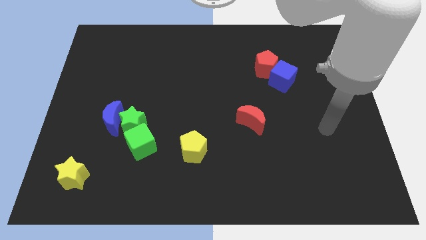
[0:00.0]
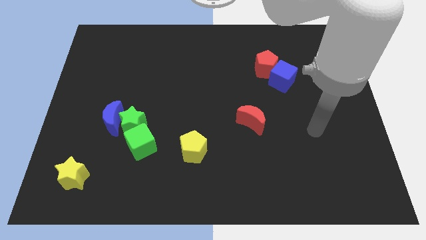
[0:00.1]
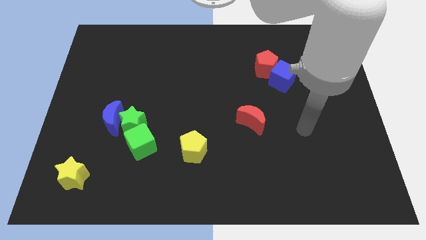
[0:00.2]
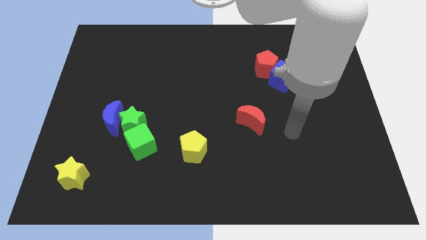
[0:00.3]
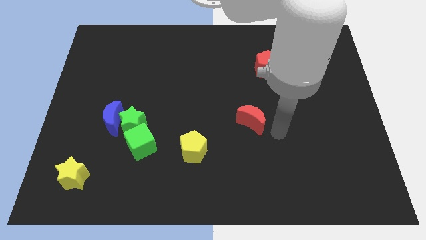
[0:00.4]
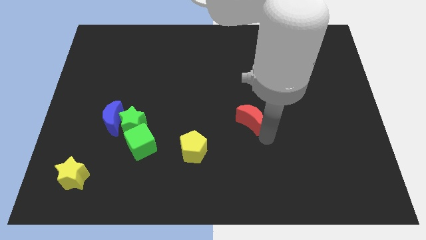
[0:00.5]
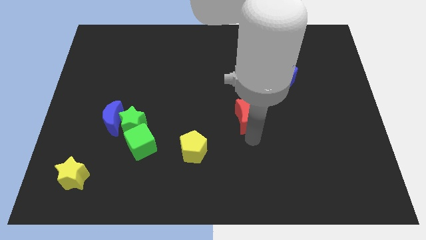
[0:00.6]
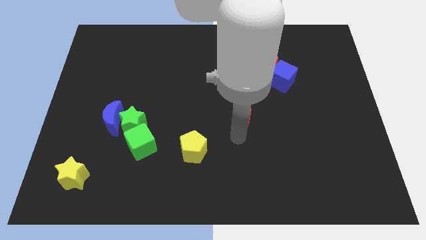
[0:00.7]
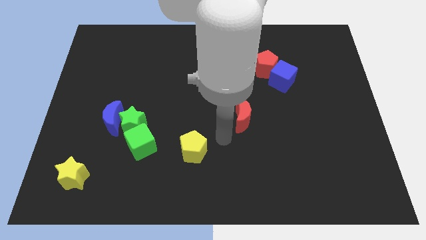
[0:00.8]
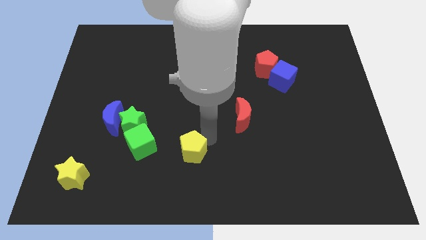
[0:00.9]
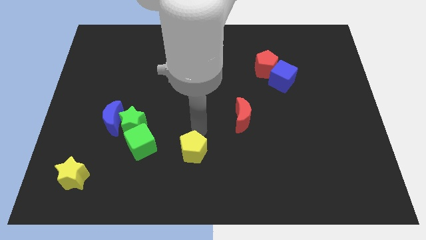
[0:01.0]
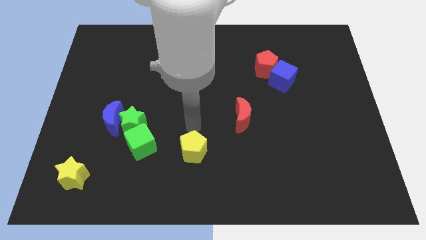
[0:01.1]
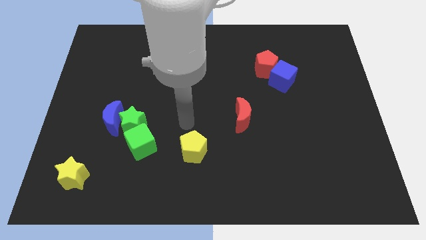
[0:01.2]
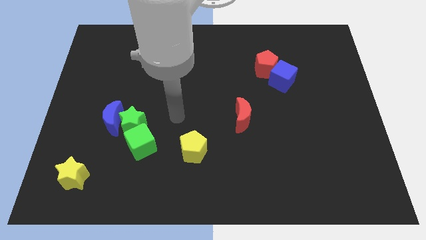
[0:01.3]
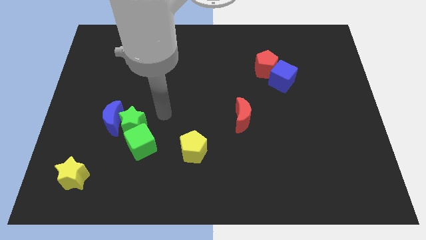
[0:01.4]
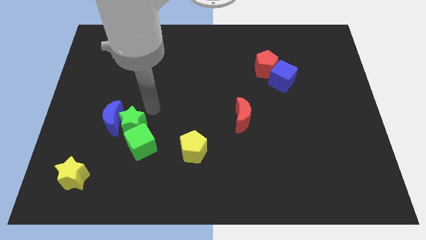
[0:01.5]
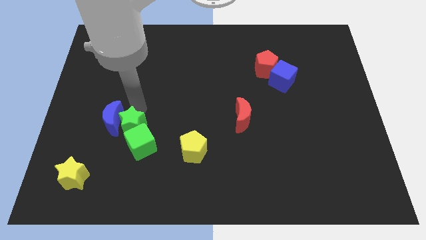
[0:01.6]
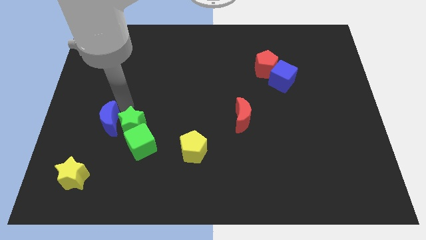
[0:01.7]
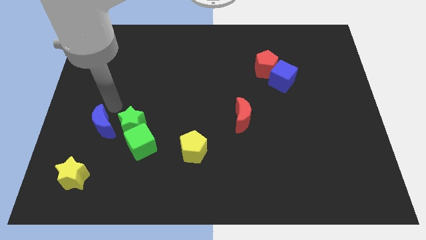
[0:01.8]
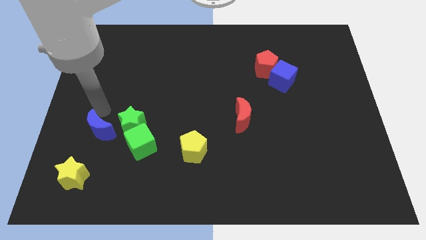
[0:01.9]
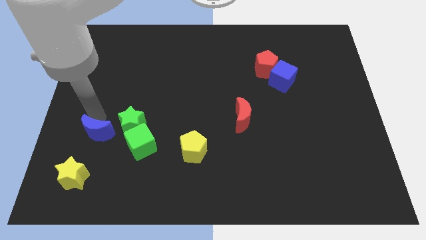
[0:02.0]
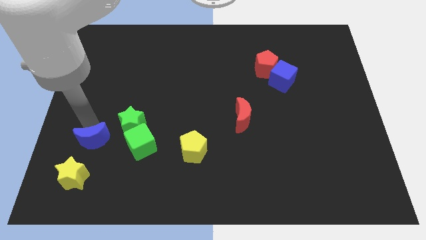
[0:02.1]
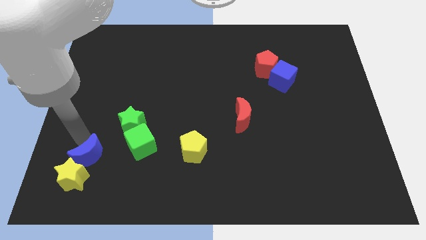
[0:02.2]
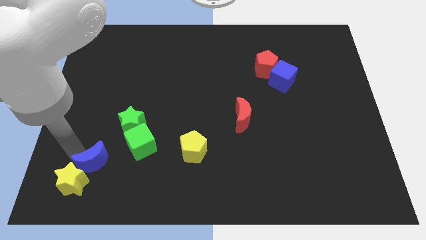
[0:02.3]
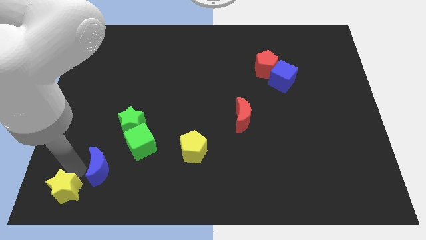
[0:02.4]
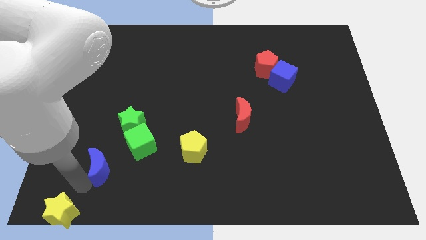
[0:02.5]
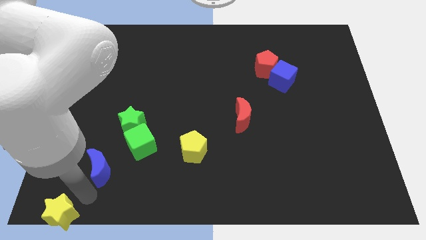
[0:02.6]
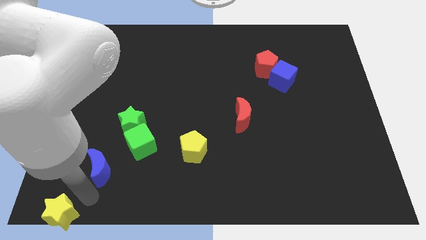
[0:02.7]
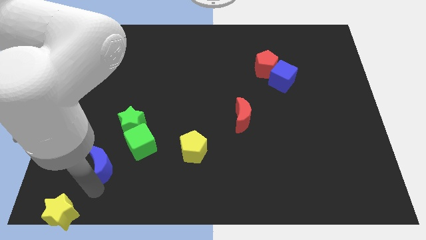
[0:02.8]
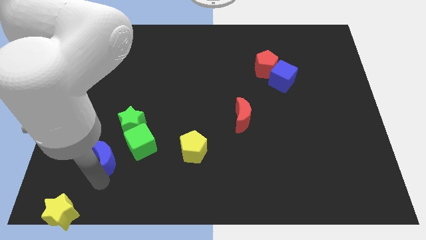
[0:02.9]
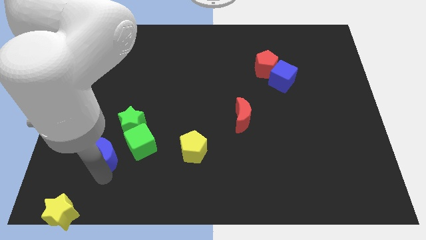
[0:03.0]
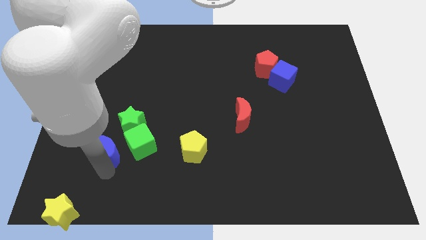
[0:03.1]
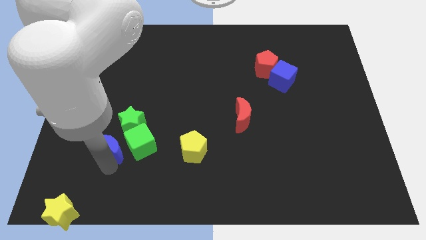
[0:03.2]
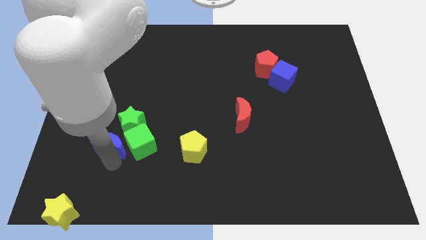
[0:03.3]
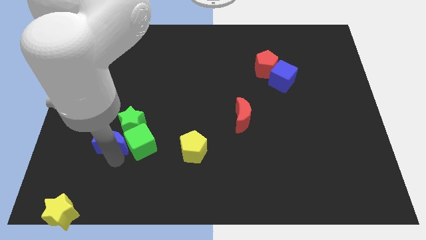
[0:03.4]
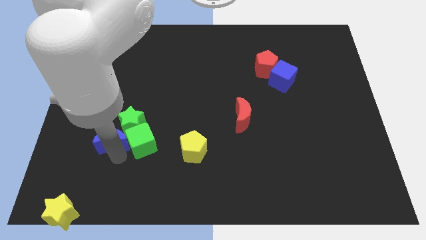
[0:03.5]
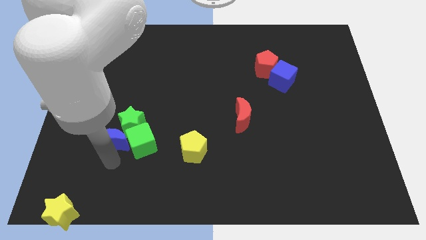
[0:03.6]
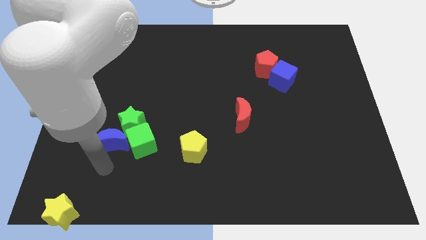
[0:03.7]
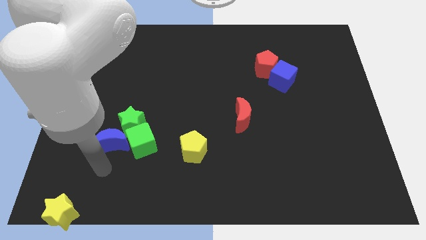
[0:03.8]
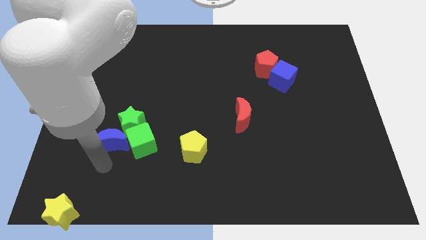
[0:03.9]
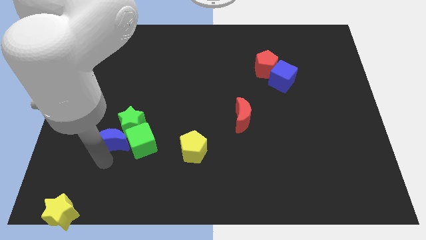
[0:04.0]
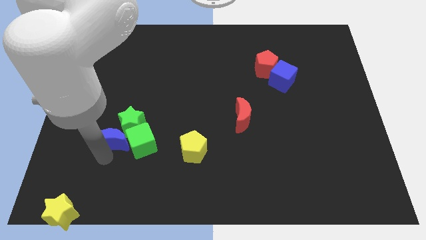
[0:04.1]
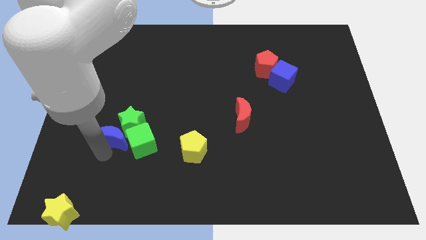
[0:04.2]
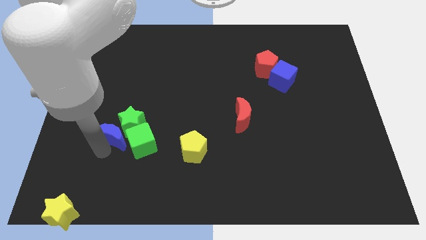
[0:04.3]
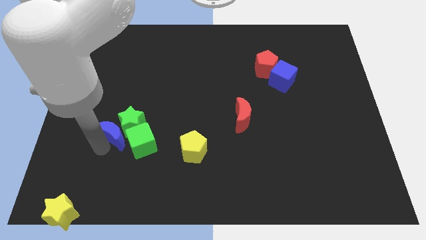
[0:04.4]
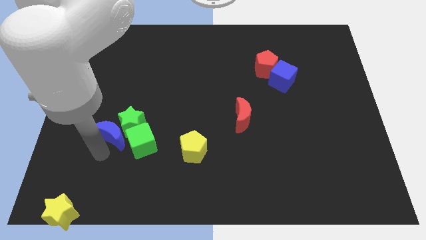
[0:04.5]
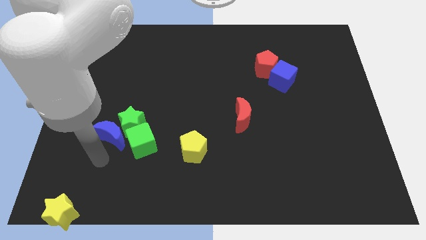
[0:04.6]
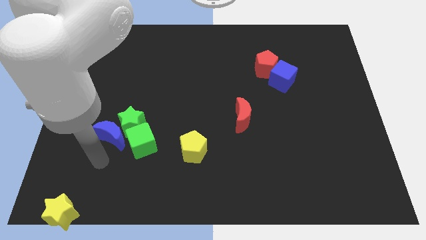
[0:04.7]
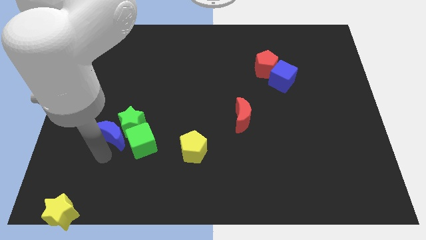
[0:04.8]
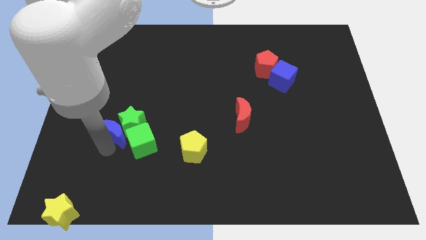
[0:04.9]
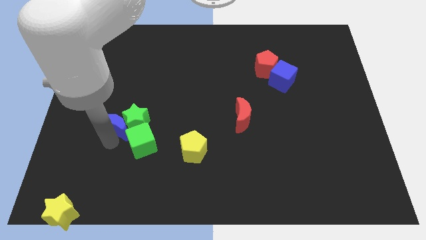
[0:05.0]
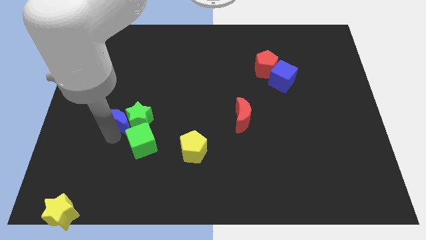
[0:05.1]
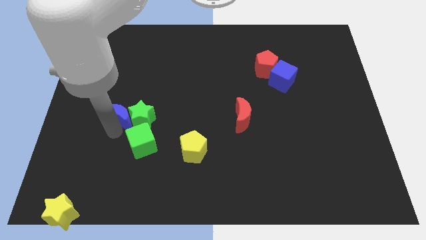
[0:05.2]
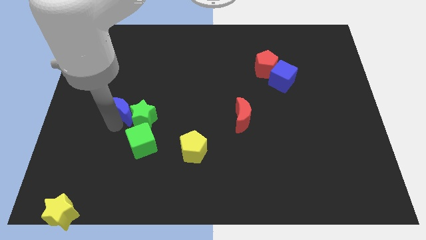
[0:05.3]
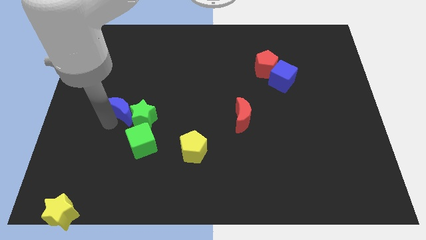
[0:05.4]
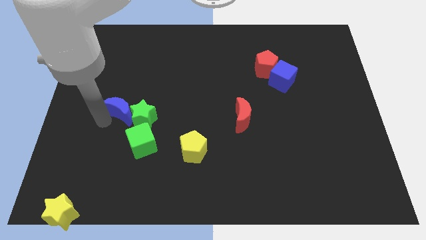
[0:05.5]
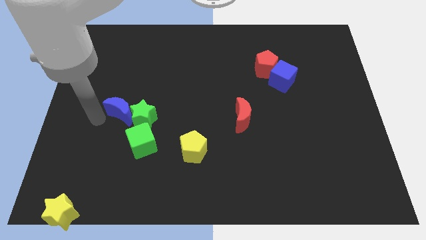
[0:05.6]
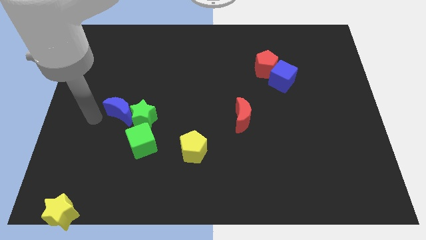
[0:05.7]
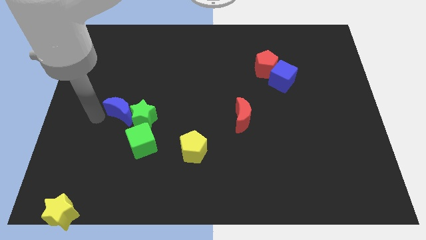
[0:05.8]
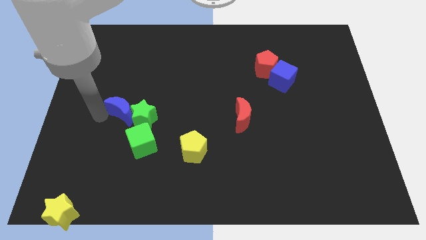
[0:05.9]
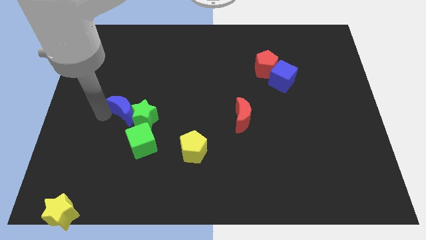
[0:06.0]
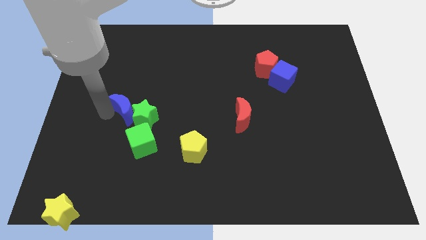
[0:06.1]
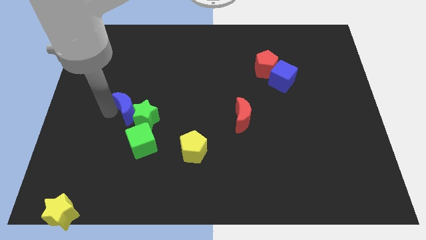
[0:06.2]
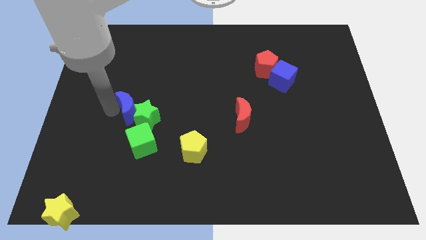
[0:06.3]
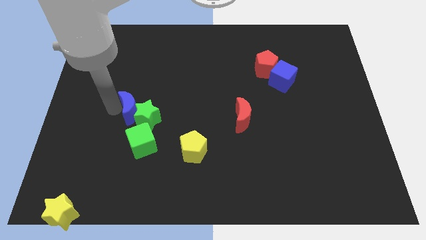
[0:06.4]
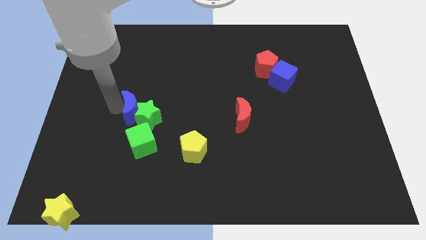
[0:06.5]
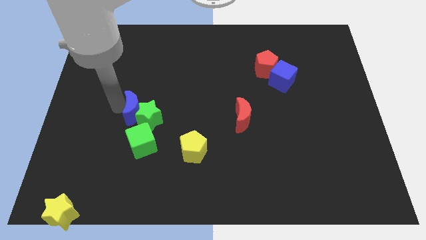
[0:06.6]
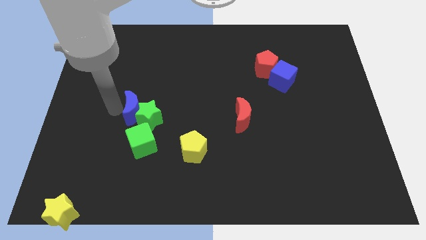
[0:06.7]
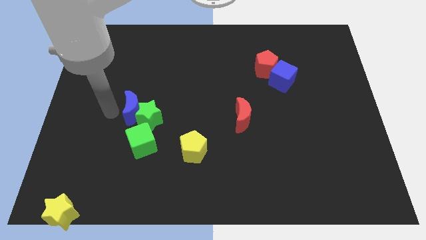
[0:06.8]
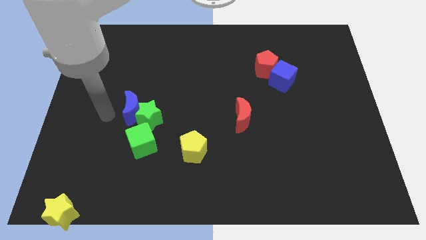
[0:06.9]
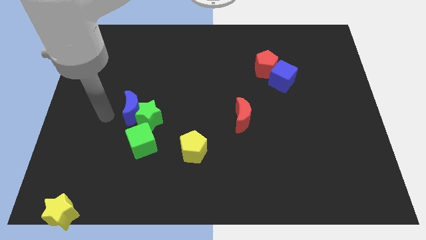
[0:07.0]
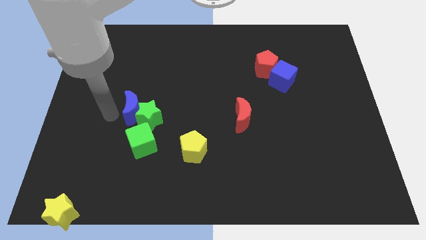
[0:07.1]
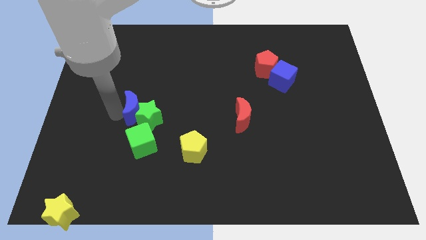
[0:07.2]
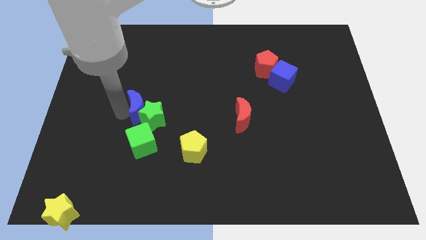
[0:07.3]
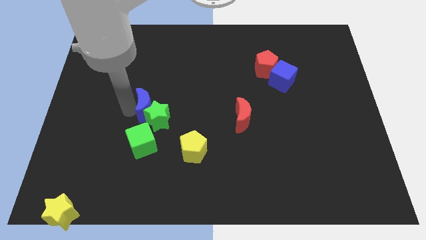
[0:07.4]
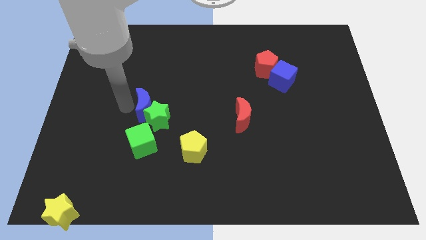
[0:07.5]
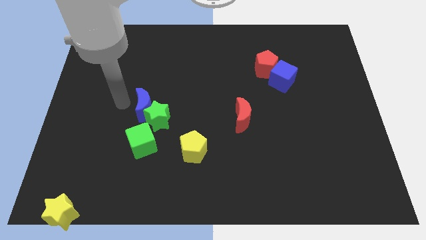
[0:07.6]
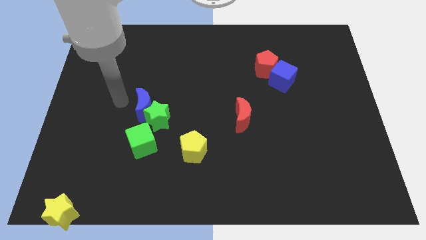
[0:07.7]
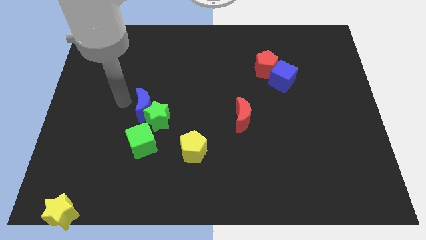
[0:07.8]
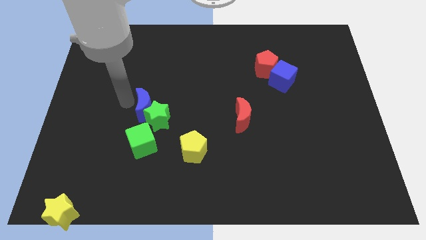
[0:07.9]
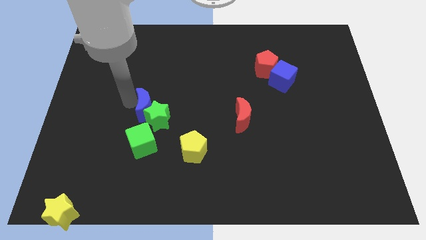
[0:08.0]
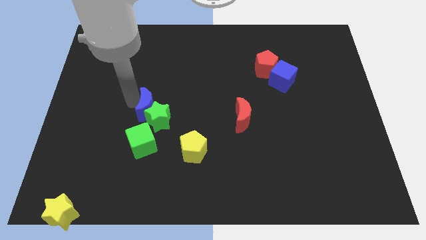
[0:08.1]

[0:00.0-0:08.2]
slightly move the blue moon right

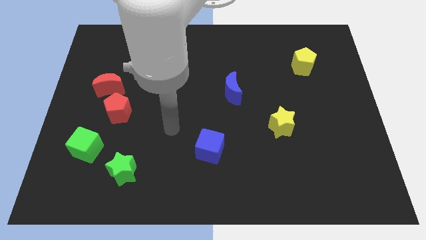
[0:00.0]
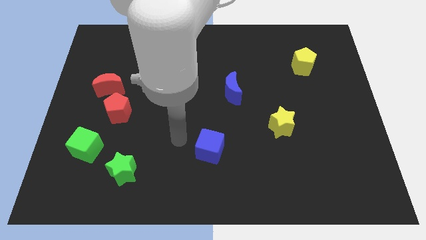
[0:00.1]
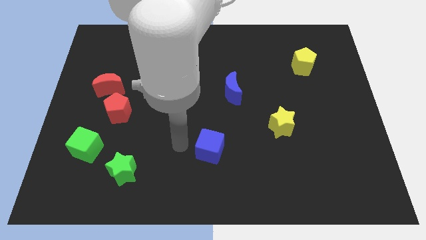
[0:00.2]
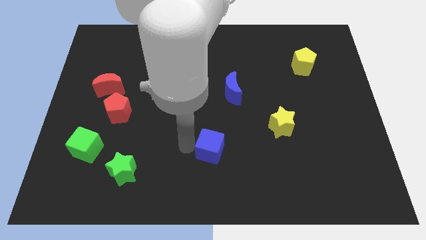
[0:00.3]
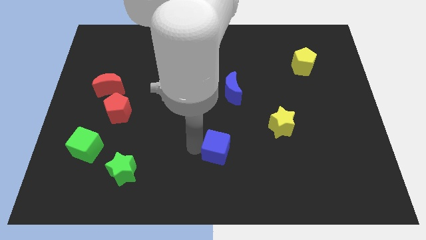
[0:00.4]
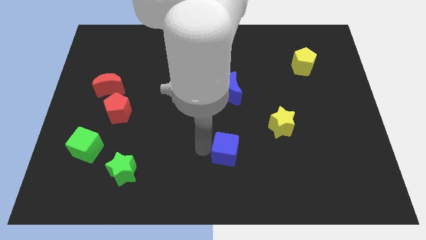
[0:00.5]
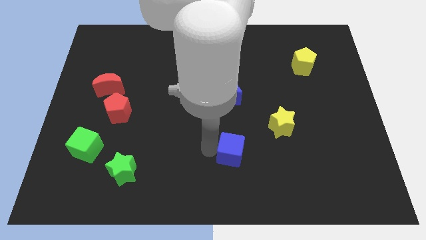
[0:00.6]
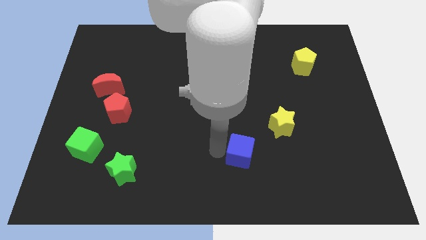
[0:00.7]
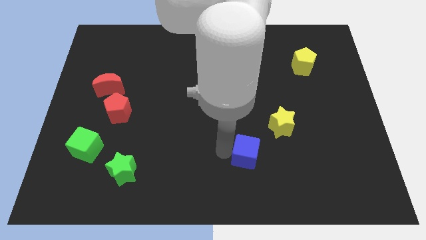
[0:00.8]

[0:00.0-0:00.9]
slide the blue cube to the right a bit
